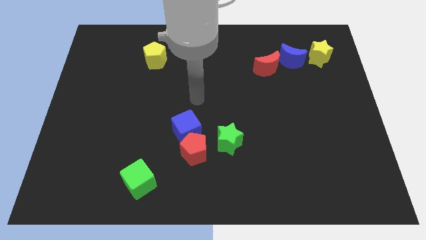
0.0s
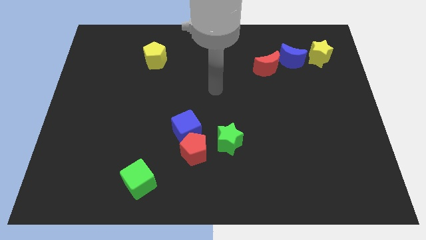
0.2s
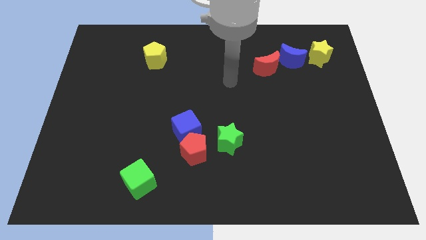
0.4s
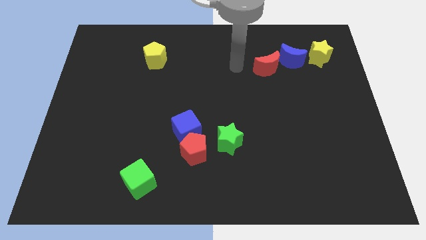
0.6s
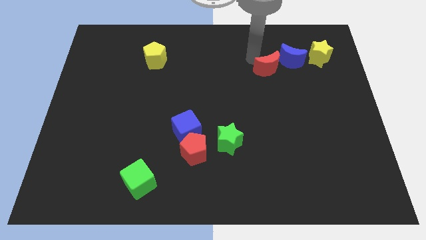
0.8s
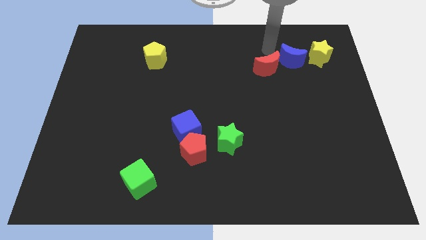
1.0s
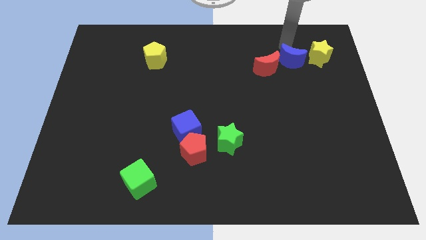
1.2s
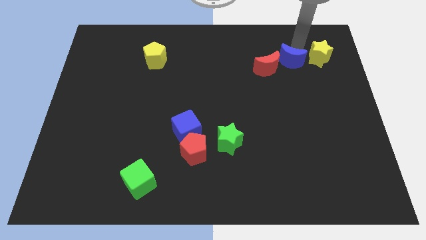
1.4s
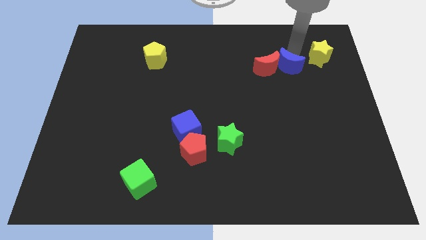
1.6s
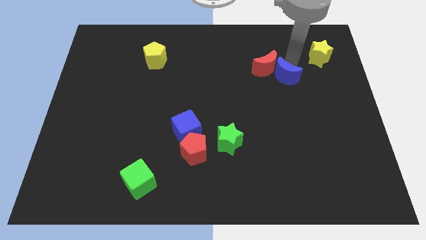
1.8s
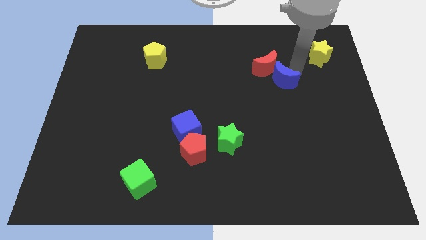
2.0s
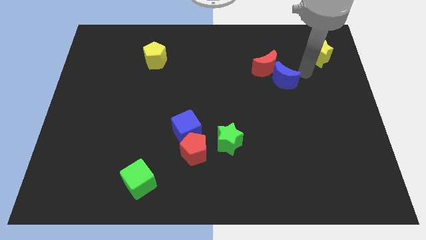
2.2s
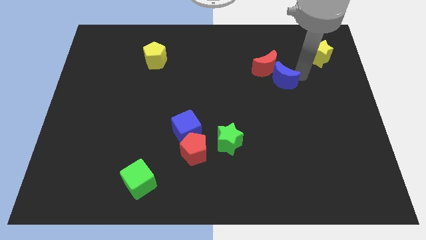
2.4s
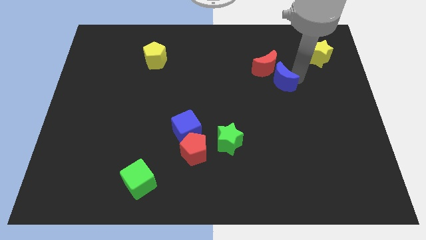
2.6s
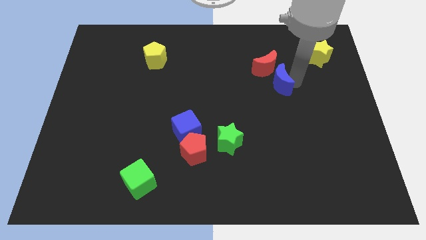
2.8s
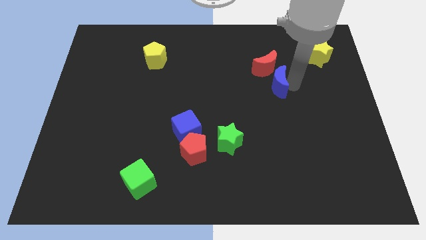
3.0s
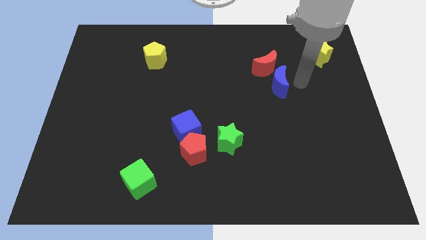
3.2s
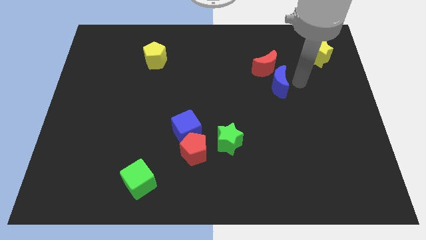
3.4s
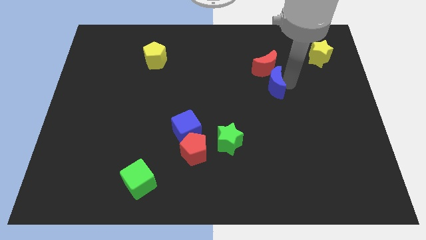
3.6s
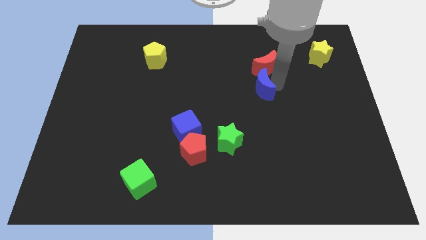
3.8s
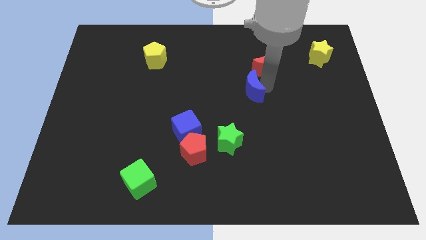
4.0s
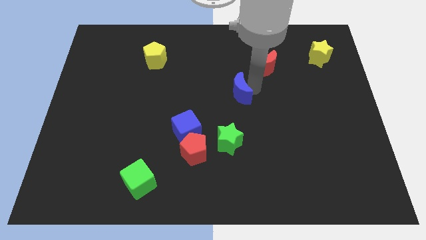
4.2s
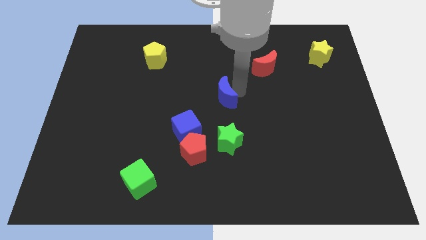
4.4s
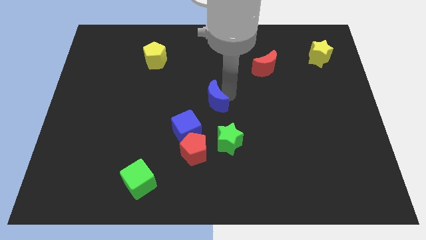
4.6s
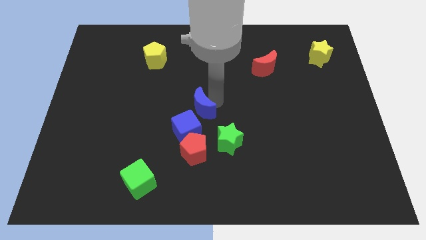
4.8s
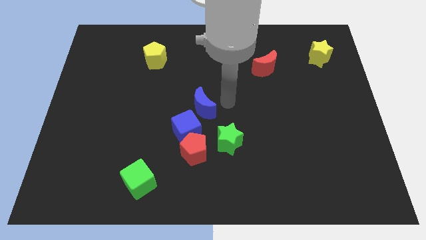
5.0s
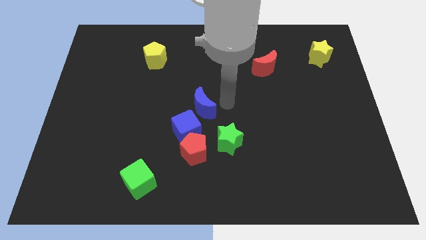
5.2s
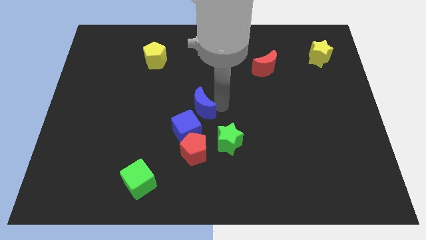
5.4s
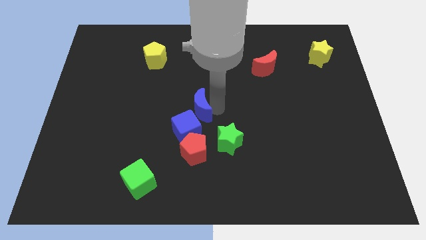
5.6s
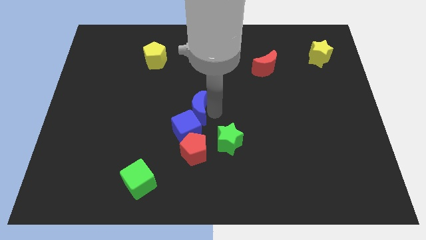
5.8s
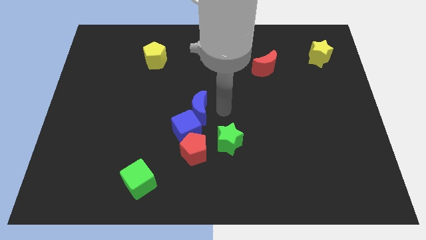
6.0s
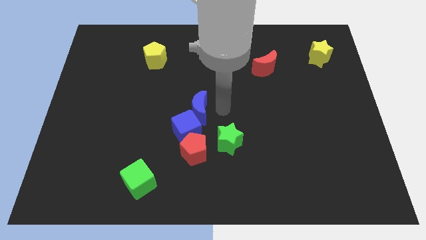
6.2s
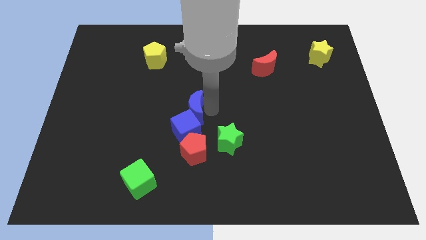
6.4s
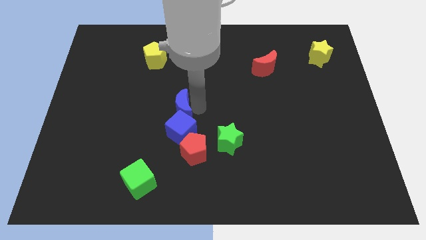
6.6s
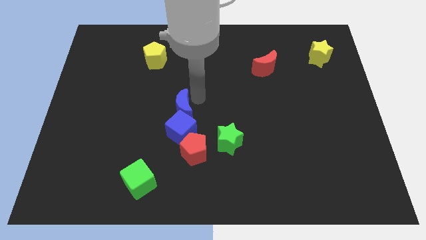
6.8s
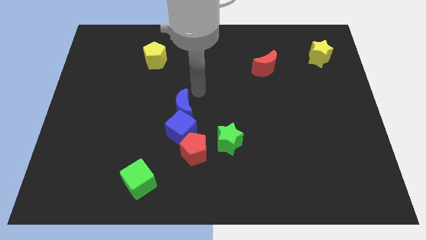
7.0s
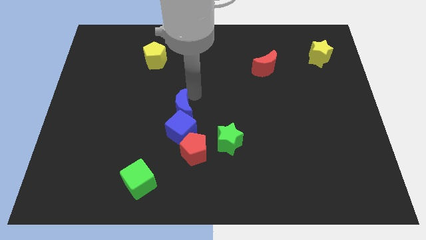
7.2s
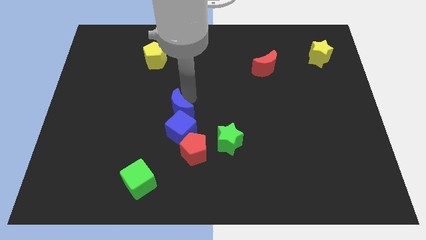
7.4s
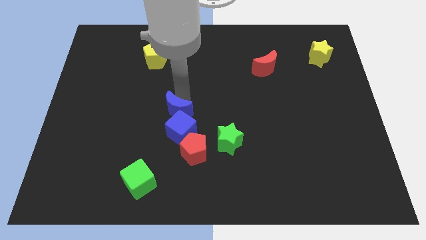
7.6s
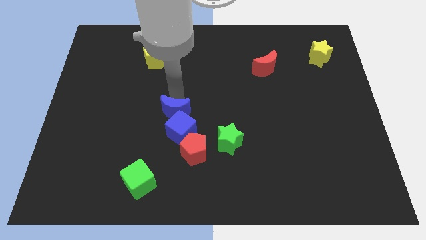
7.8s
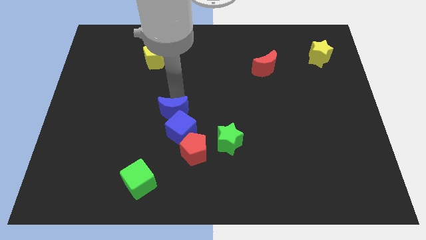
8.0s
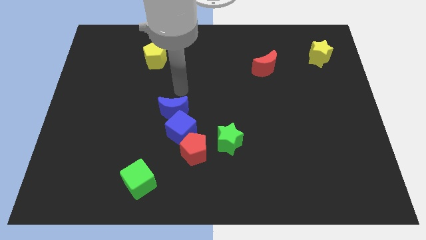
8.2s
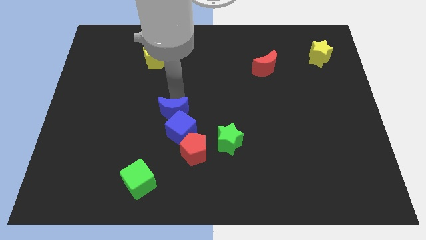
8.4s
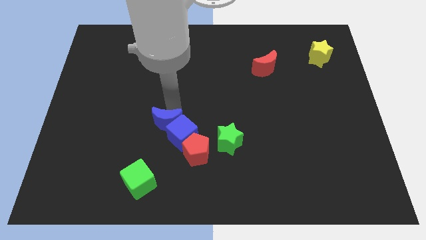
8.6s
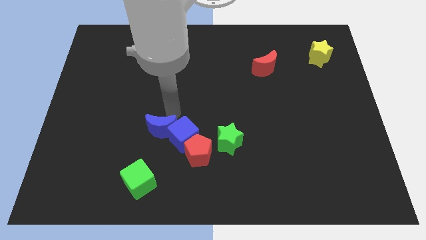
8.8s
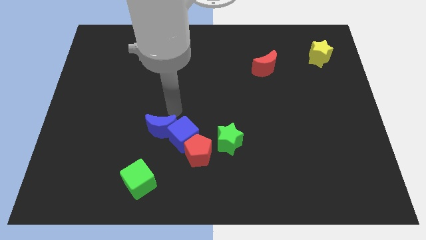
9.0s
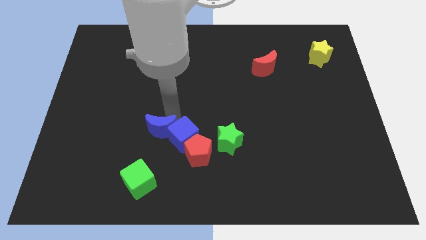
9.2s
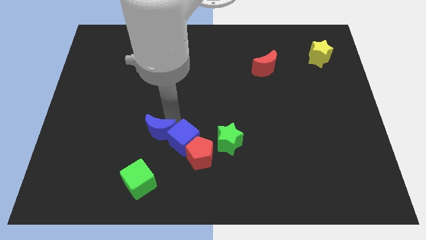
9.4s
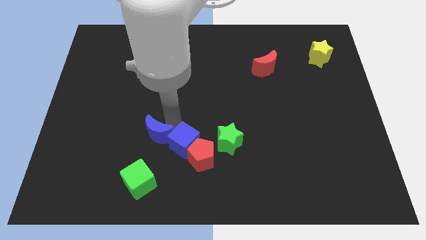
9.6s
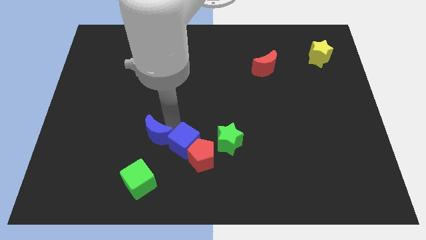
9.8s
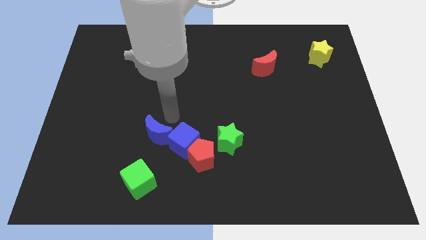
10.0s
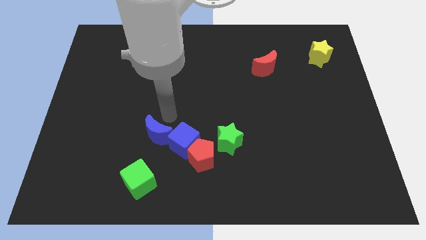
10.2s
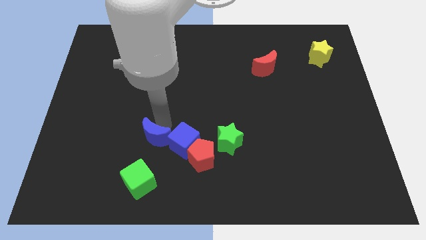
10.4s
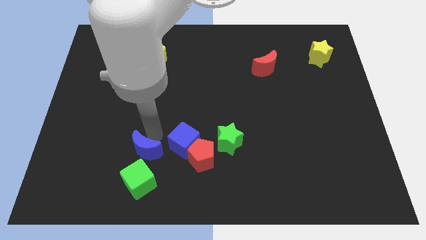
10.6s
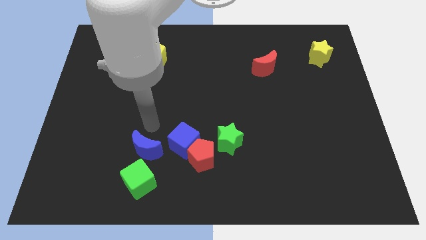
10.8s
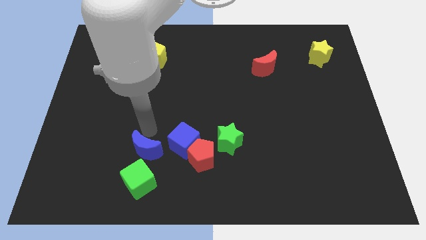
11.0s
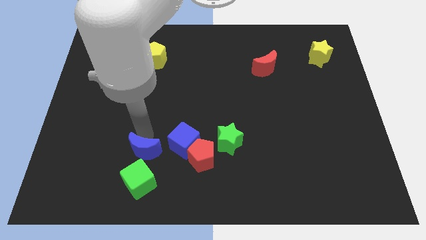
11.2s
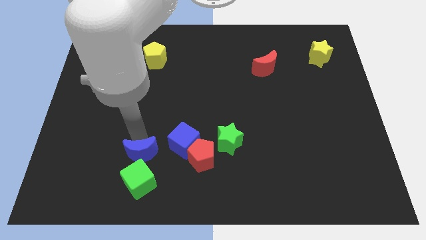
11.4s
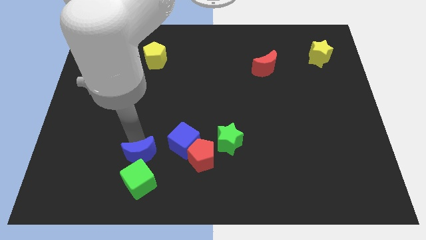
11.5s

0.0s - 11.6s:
push the blue moon to the green cube

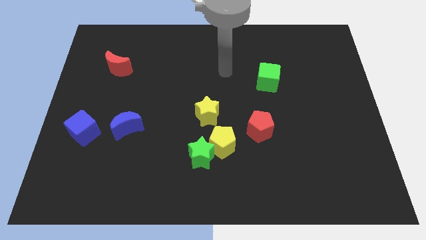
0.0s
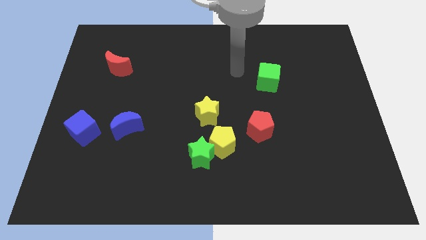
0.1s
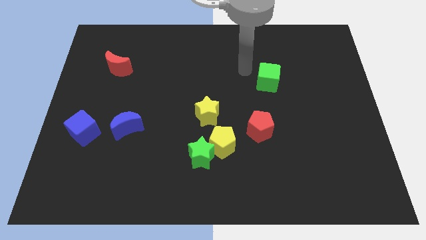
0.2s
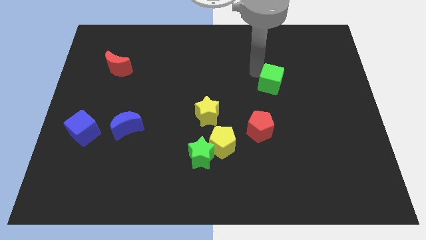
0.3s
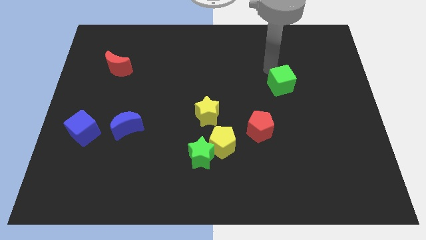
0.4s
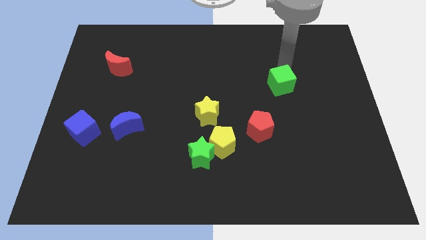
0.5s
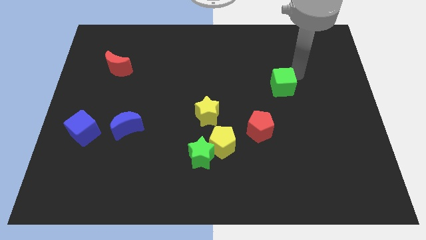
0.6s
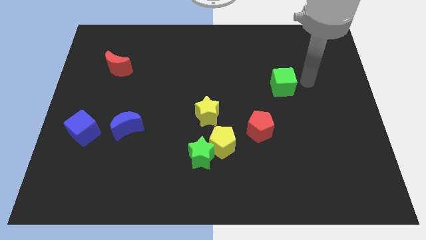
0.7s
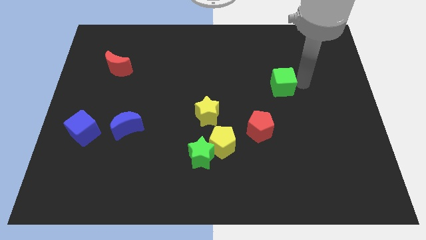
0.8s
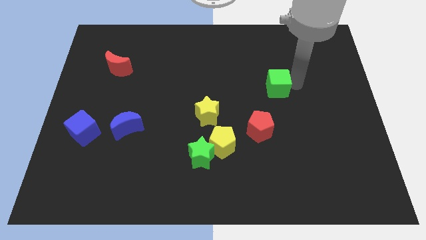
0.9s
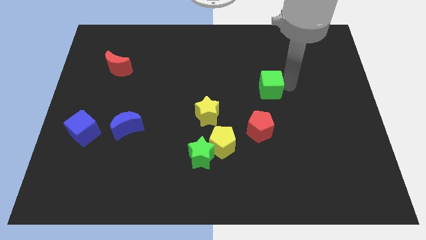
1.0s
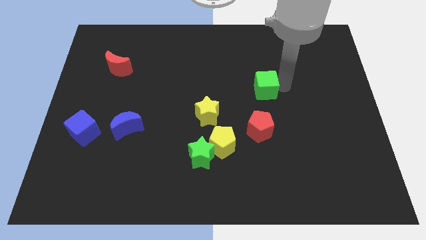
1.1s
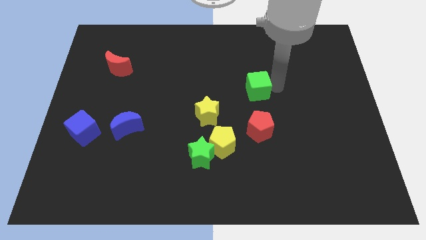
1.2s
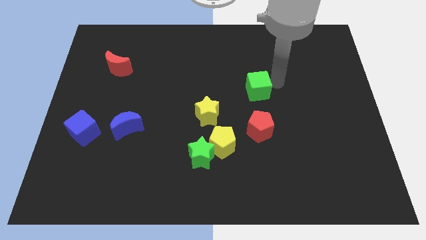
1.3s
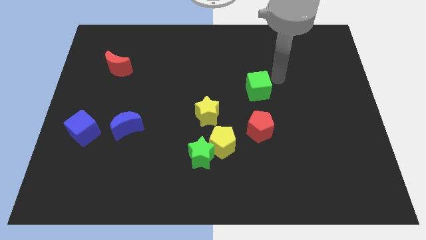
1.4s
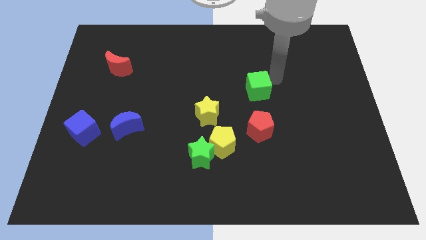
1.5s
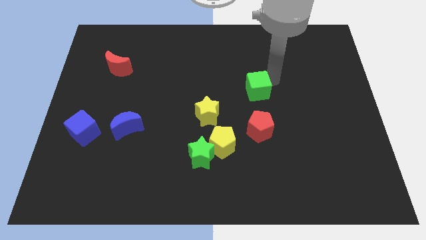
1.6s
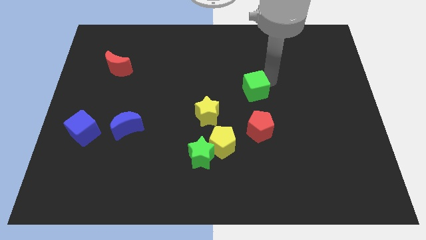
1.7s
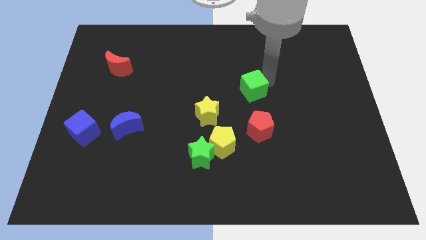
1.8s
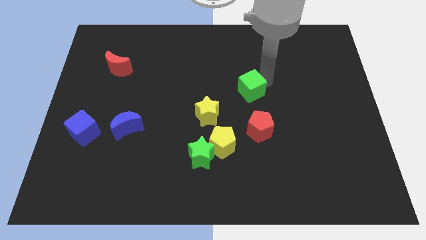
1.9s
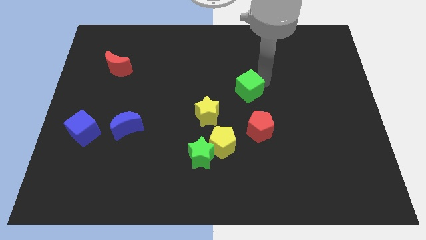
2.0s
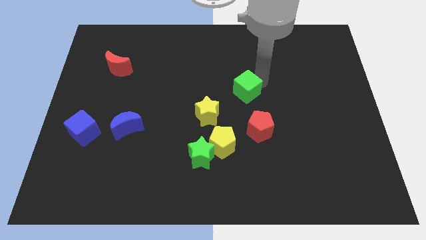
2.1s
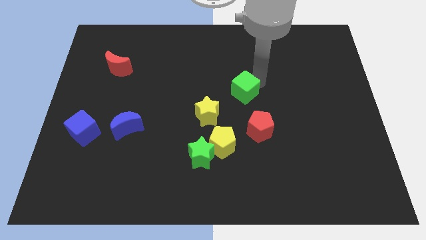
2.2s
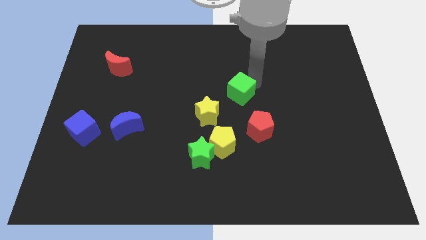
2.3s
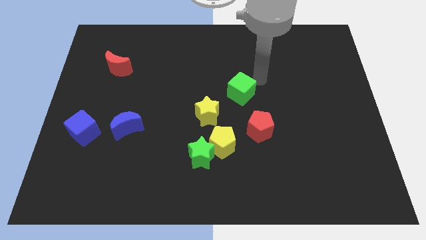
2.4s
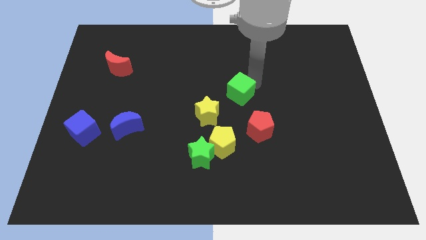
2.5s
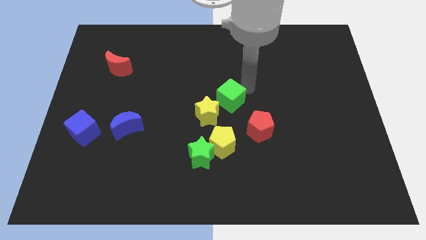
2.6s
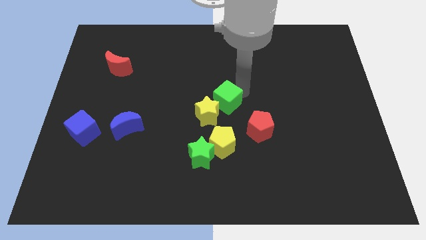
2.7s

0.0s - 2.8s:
put the green cube to the yellow star
